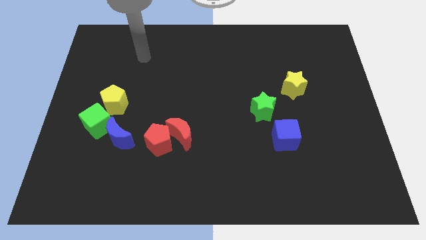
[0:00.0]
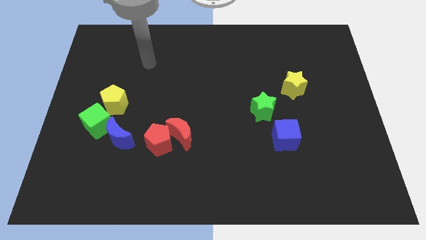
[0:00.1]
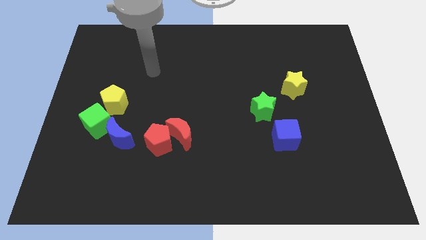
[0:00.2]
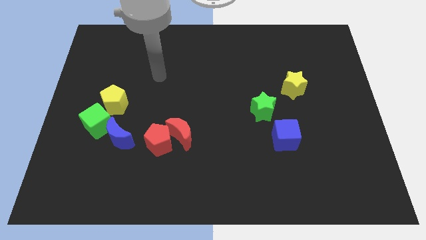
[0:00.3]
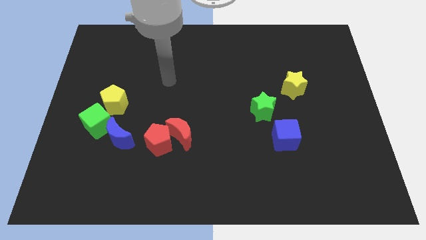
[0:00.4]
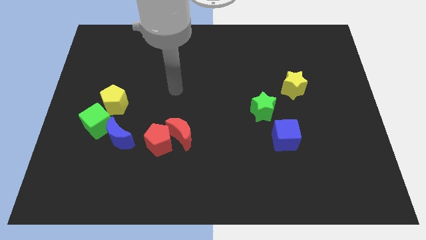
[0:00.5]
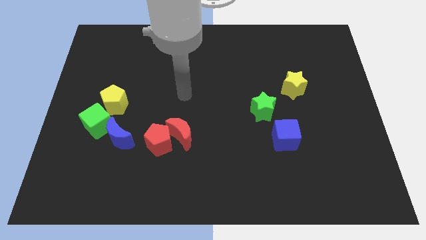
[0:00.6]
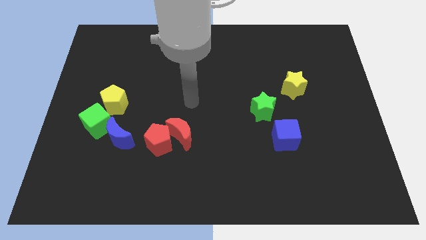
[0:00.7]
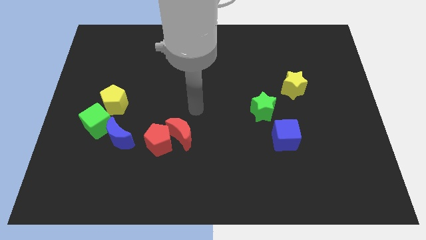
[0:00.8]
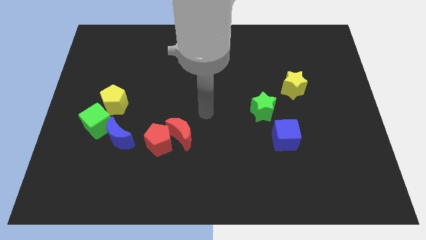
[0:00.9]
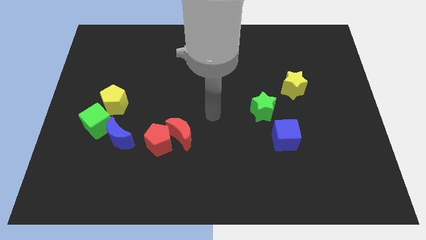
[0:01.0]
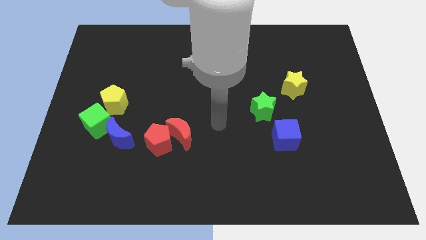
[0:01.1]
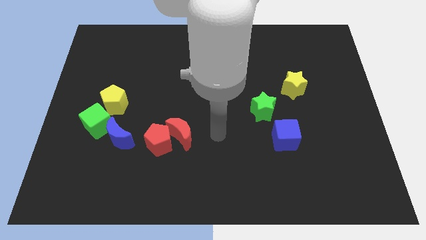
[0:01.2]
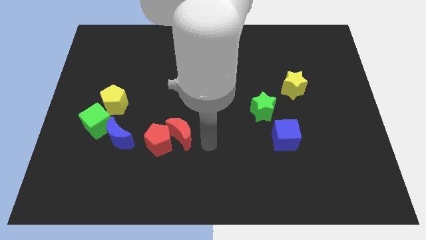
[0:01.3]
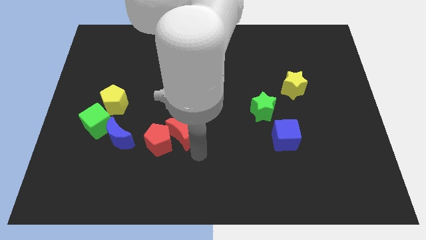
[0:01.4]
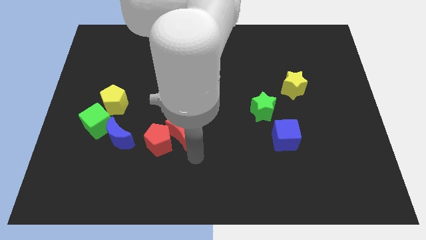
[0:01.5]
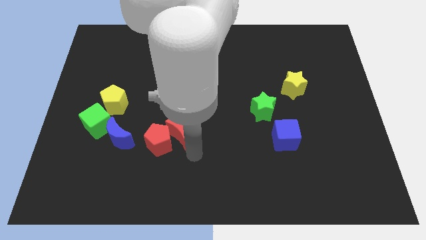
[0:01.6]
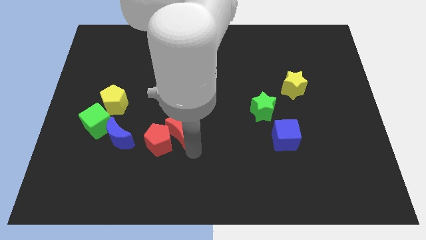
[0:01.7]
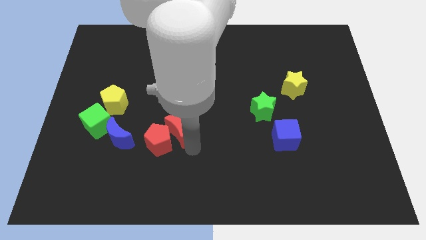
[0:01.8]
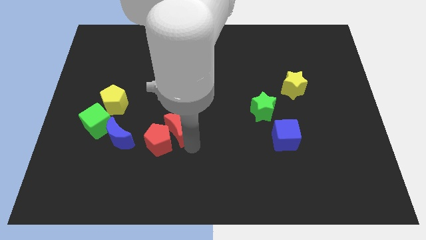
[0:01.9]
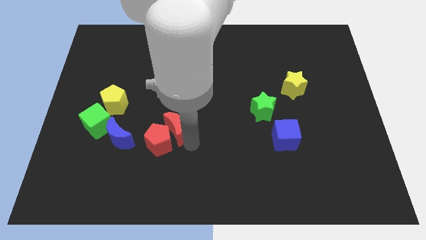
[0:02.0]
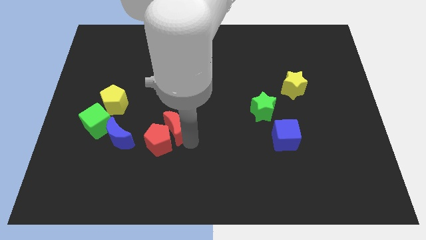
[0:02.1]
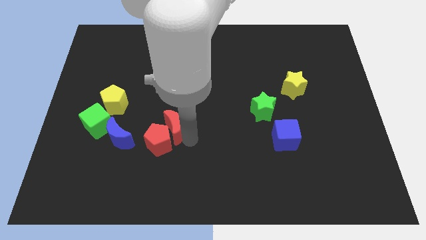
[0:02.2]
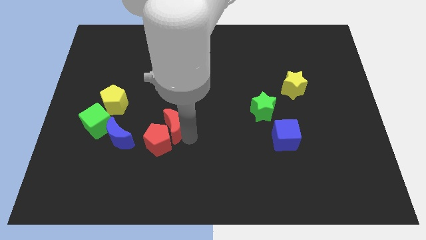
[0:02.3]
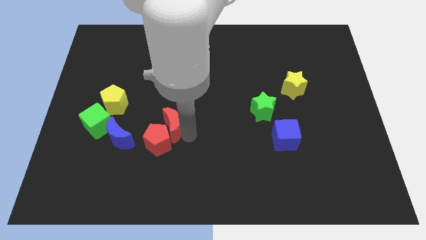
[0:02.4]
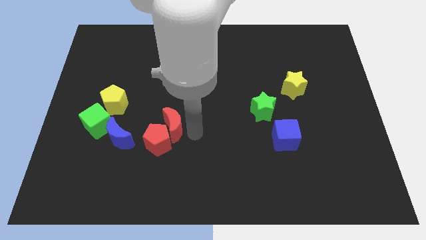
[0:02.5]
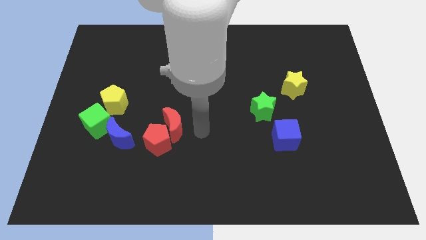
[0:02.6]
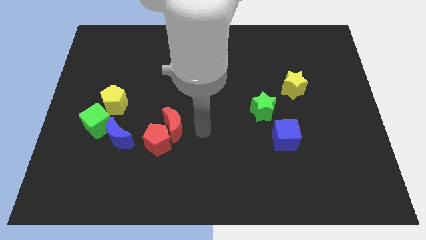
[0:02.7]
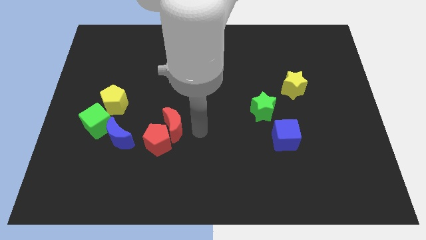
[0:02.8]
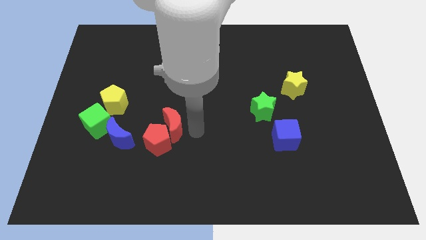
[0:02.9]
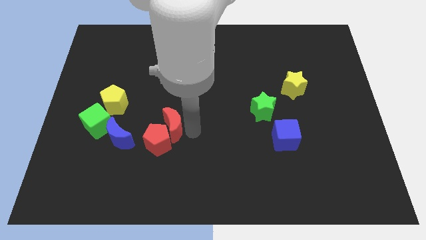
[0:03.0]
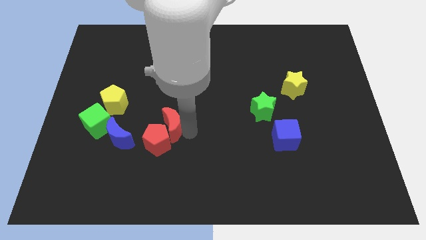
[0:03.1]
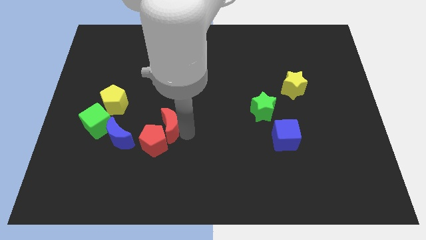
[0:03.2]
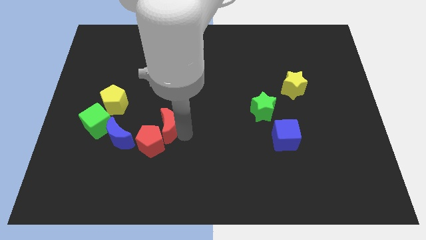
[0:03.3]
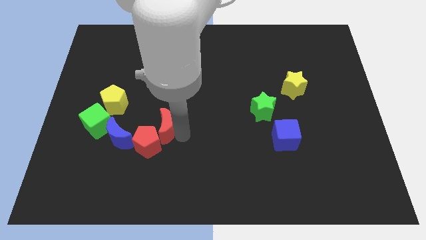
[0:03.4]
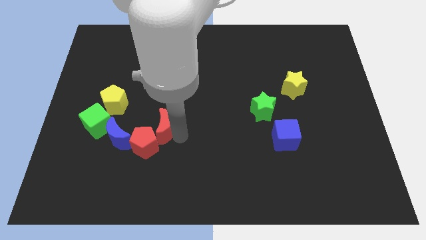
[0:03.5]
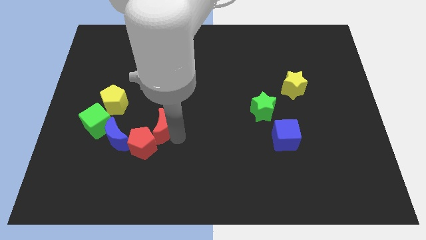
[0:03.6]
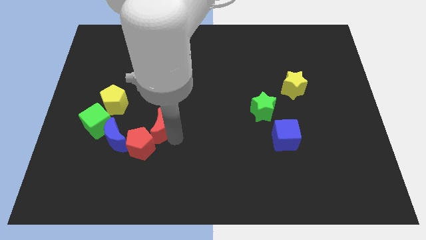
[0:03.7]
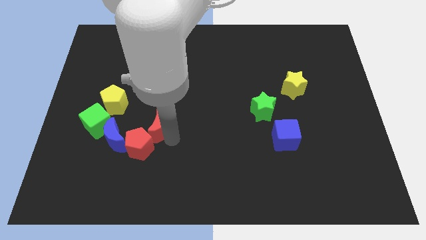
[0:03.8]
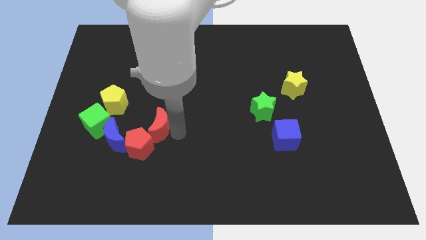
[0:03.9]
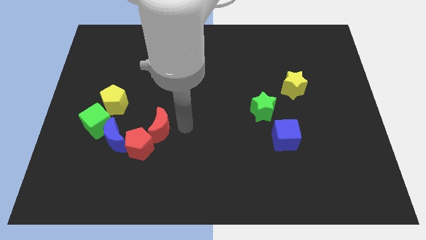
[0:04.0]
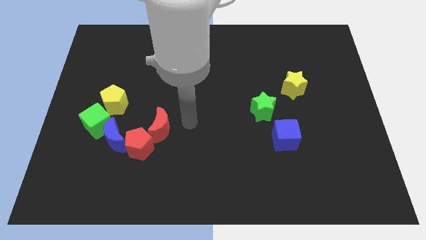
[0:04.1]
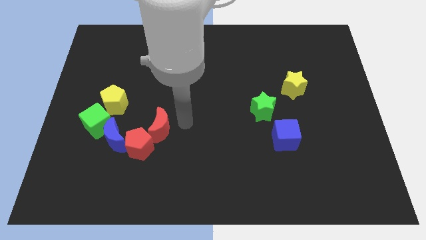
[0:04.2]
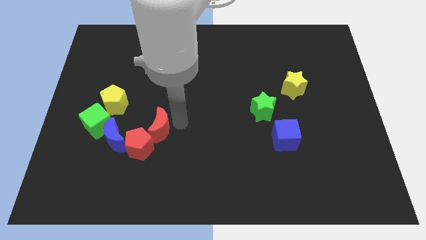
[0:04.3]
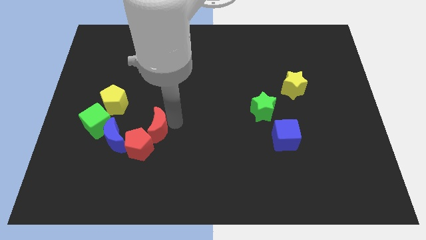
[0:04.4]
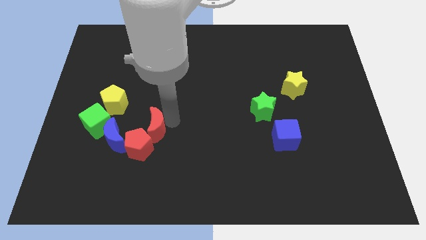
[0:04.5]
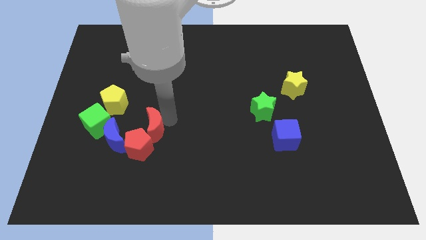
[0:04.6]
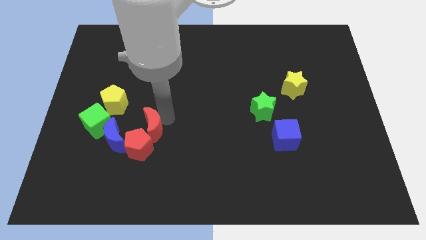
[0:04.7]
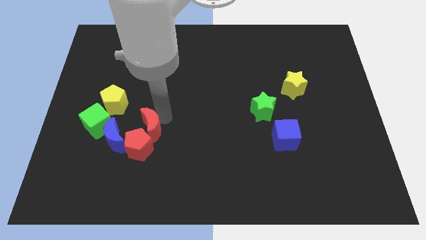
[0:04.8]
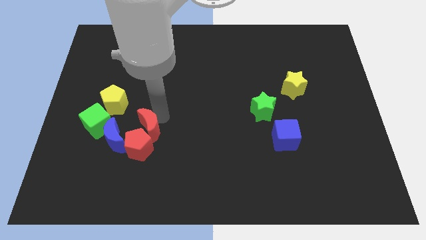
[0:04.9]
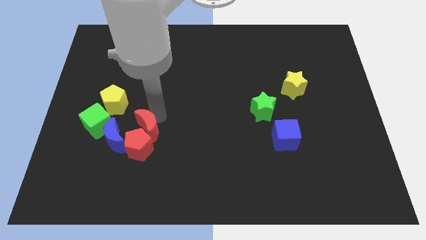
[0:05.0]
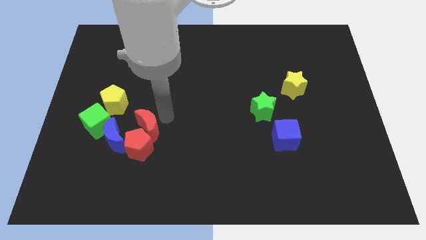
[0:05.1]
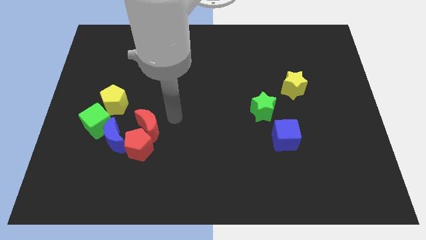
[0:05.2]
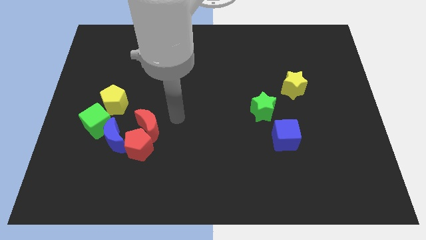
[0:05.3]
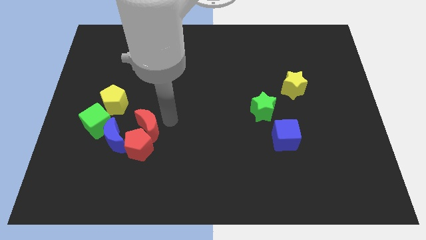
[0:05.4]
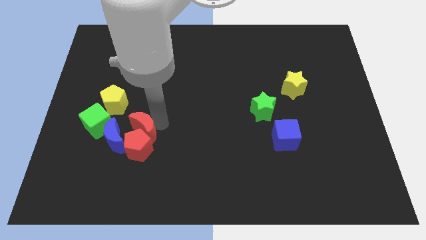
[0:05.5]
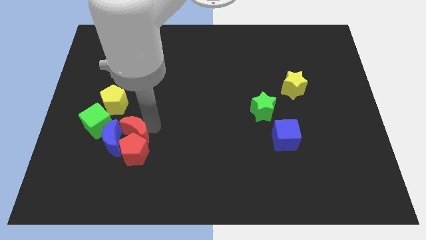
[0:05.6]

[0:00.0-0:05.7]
move the red moon towards the blue moon

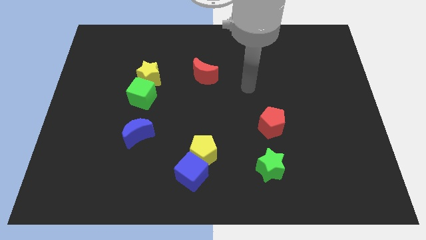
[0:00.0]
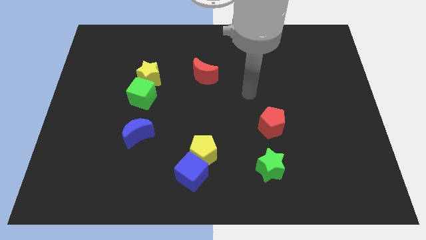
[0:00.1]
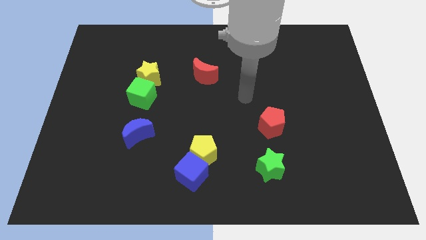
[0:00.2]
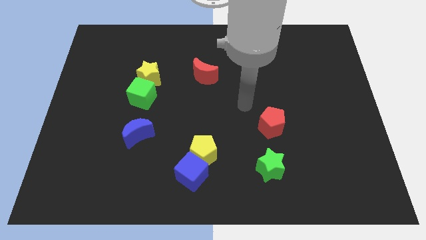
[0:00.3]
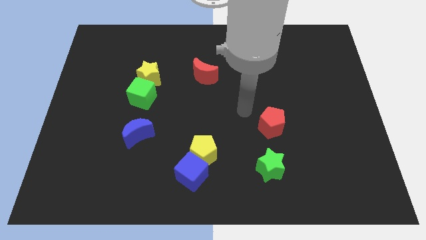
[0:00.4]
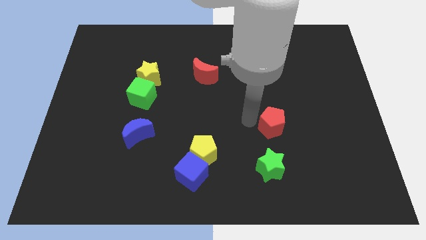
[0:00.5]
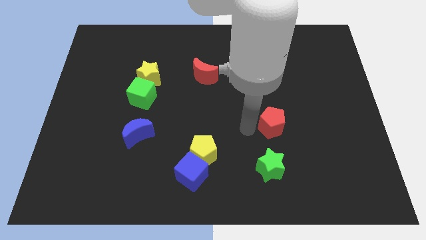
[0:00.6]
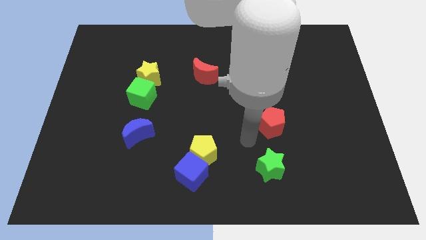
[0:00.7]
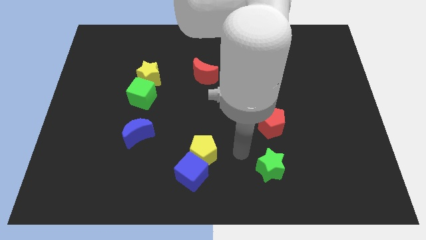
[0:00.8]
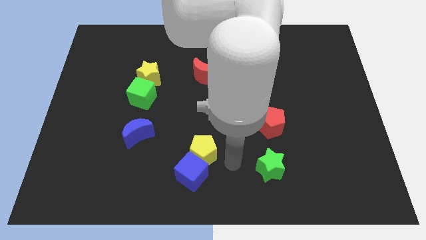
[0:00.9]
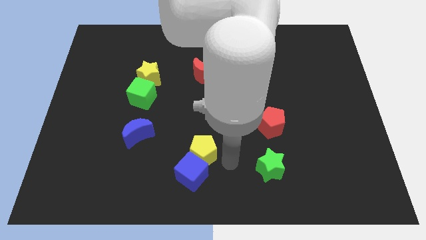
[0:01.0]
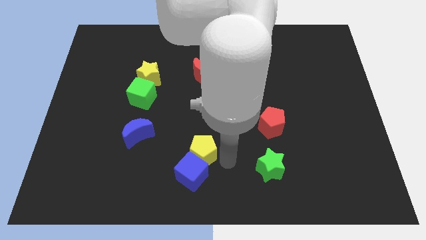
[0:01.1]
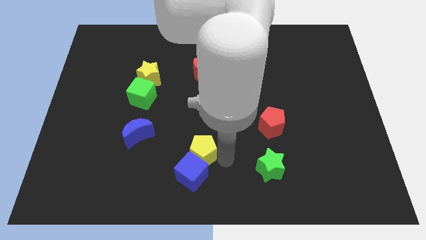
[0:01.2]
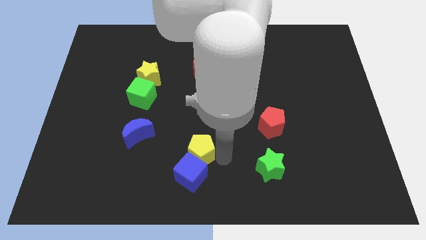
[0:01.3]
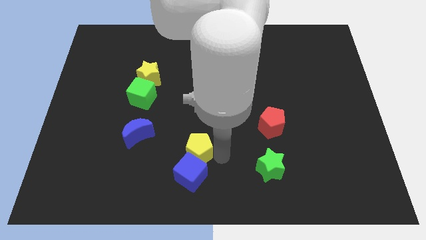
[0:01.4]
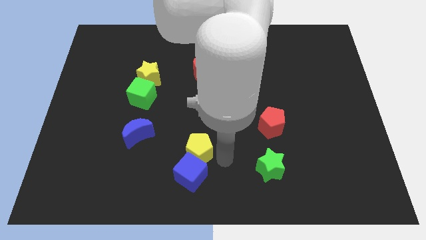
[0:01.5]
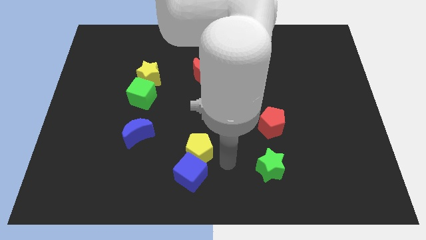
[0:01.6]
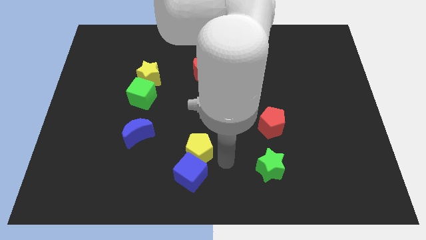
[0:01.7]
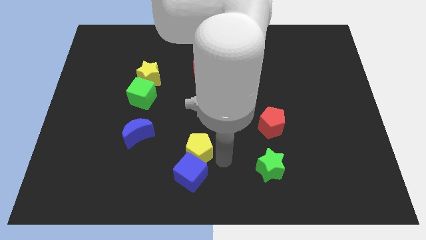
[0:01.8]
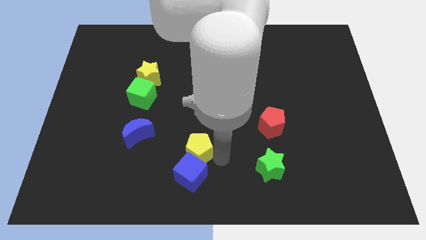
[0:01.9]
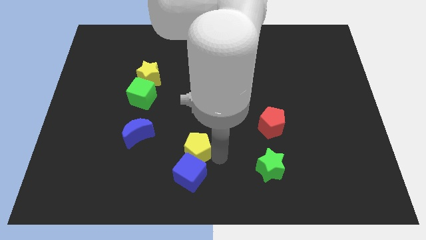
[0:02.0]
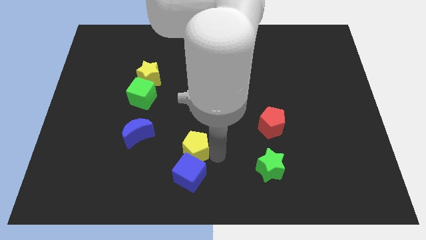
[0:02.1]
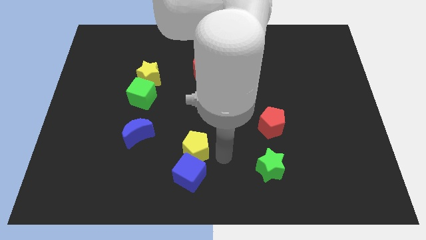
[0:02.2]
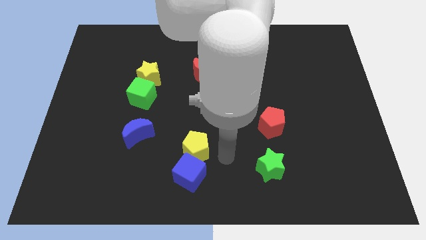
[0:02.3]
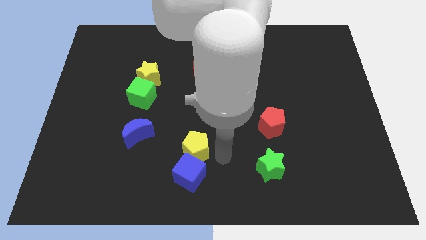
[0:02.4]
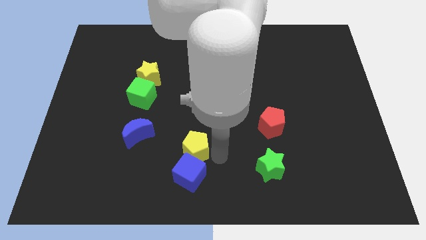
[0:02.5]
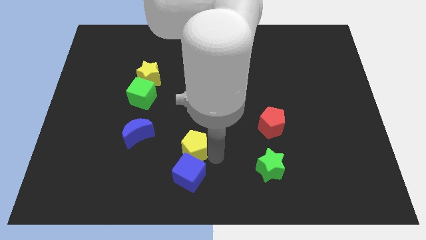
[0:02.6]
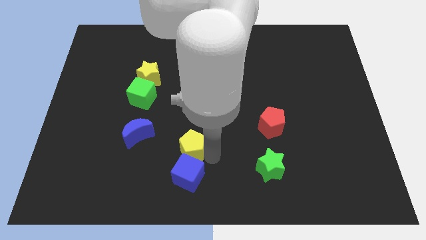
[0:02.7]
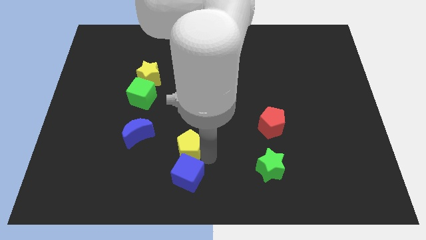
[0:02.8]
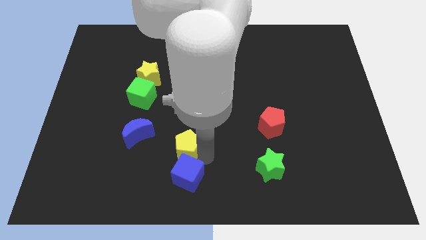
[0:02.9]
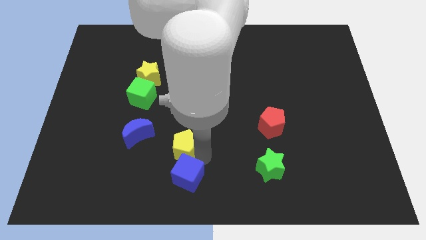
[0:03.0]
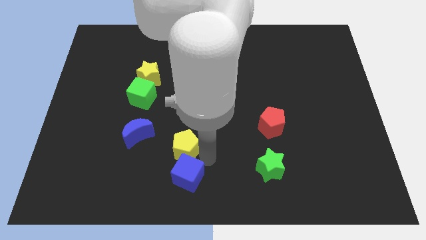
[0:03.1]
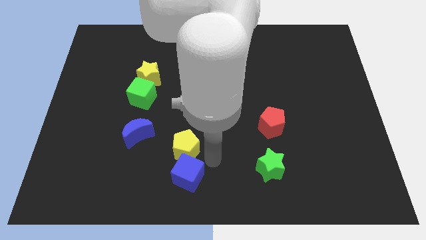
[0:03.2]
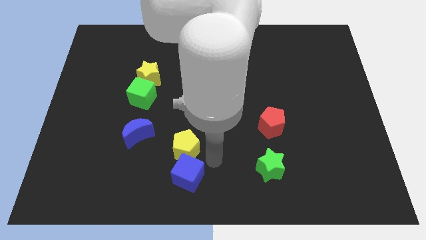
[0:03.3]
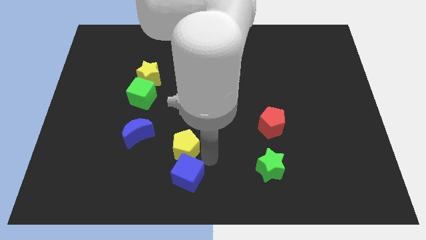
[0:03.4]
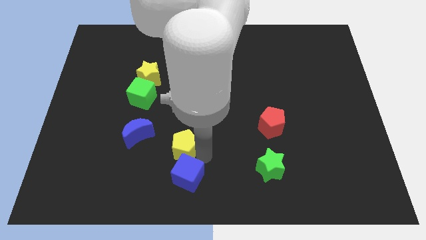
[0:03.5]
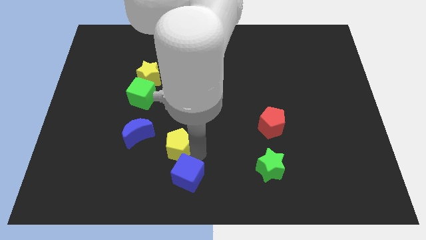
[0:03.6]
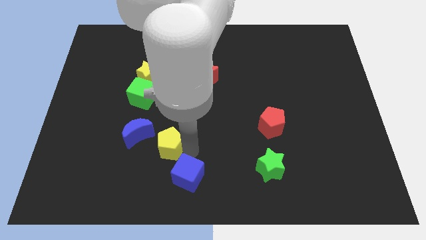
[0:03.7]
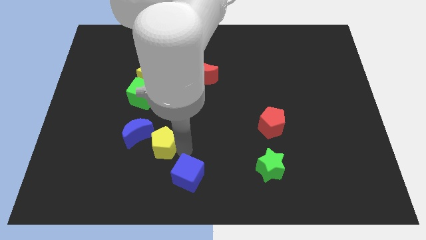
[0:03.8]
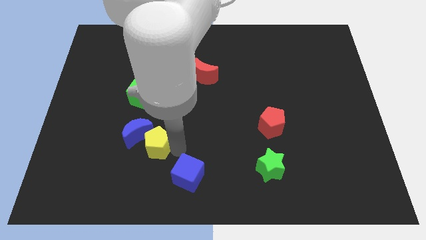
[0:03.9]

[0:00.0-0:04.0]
push the yellow pentagon next to the blue moon
